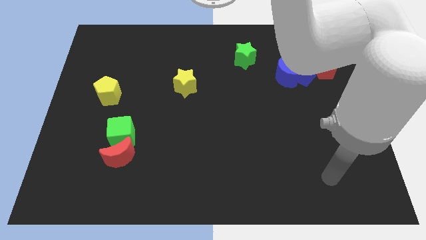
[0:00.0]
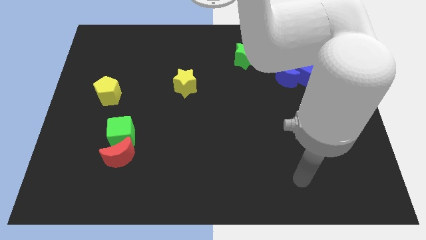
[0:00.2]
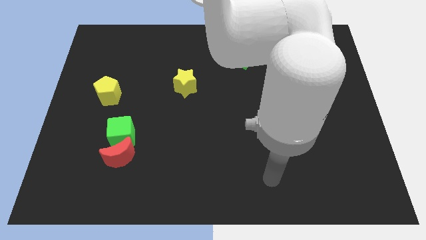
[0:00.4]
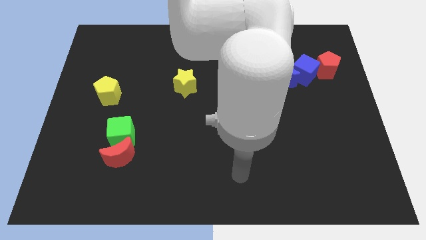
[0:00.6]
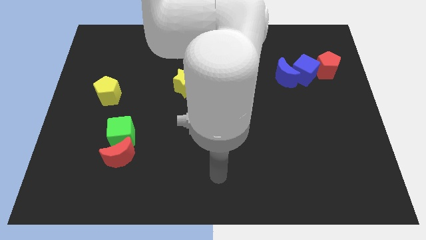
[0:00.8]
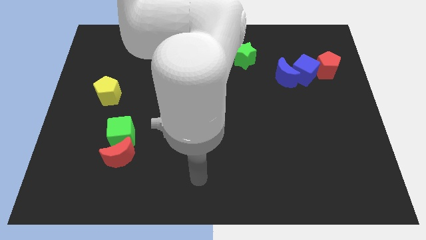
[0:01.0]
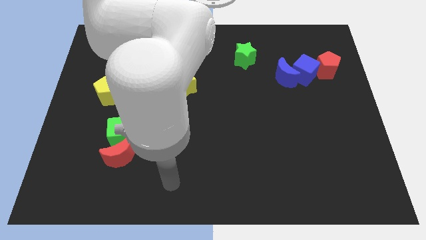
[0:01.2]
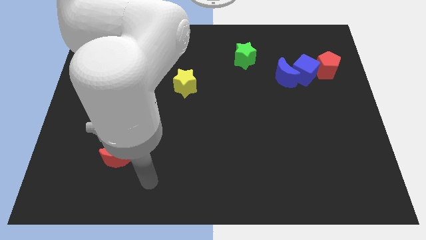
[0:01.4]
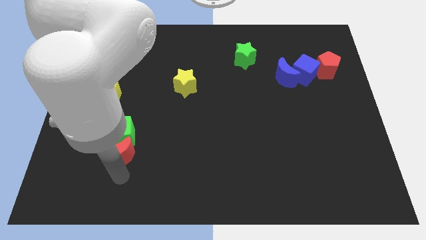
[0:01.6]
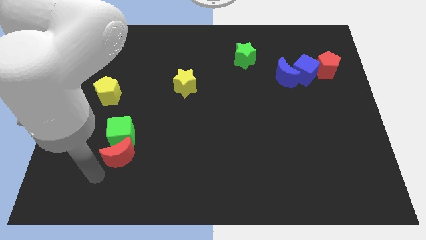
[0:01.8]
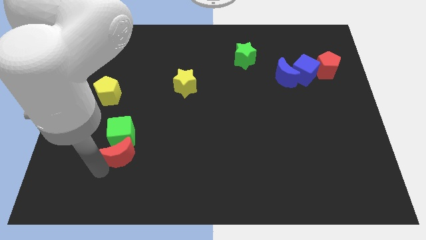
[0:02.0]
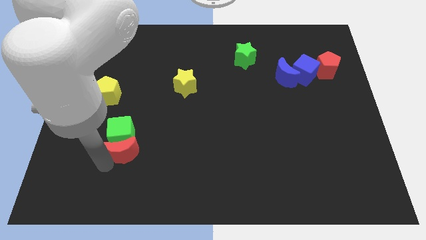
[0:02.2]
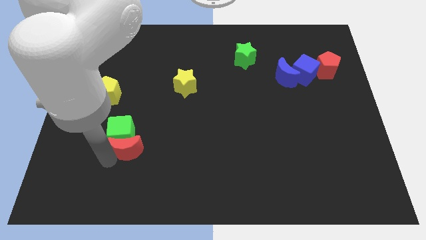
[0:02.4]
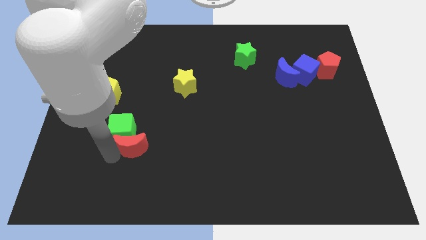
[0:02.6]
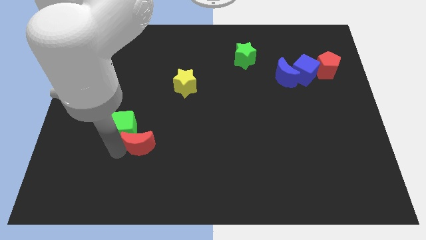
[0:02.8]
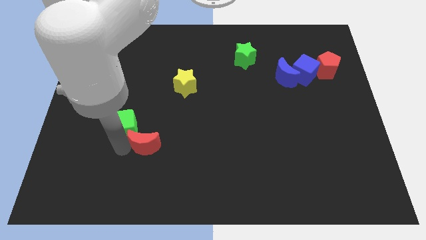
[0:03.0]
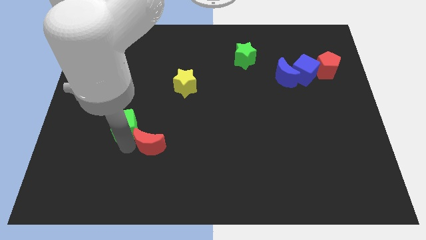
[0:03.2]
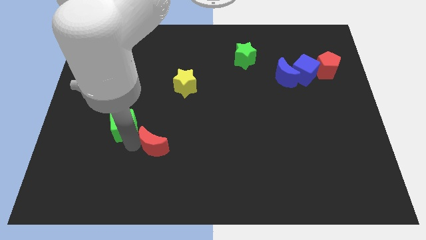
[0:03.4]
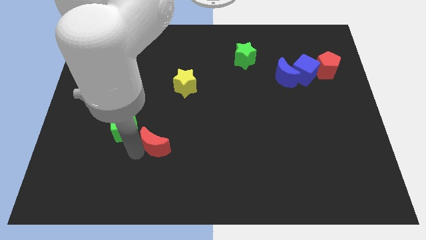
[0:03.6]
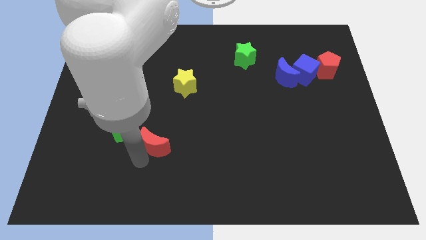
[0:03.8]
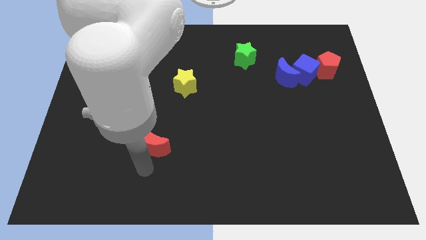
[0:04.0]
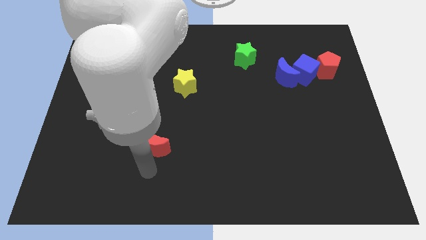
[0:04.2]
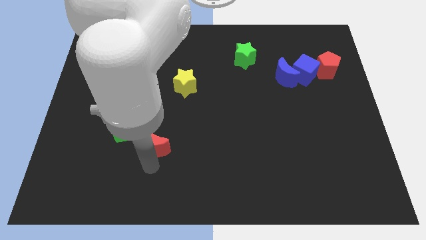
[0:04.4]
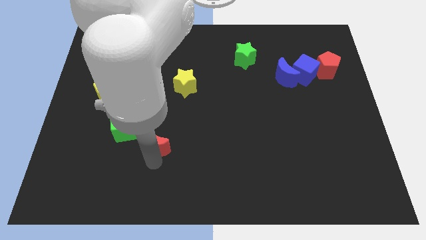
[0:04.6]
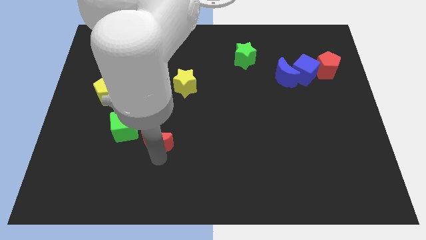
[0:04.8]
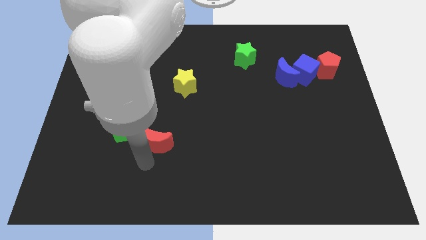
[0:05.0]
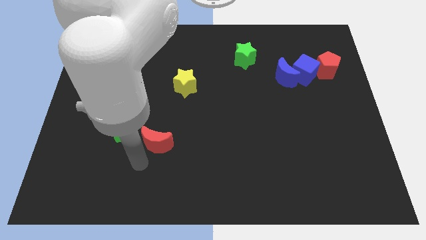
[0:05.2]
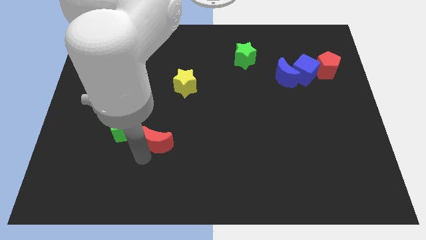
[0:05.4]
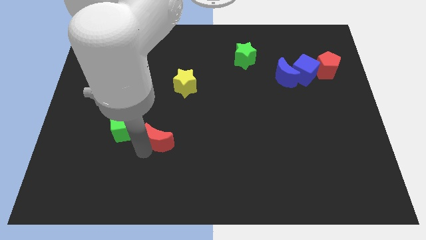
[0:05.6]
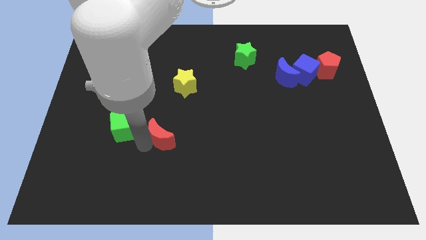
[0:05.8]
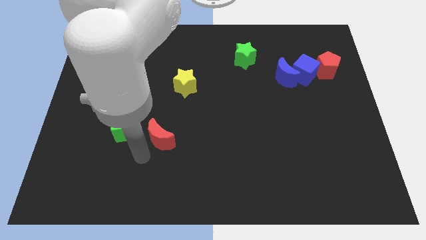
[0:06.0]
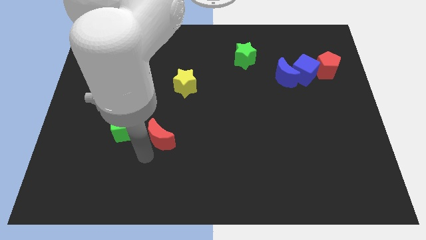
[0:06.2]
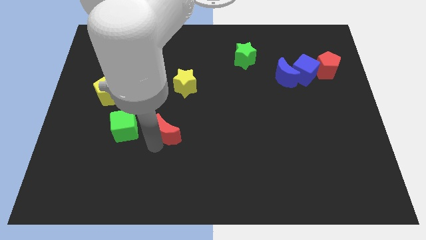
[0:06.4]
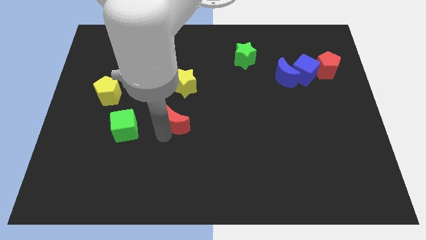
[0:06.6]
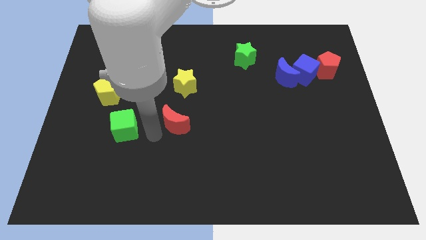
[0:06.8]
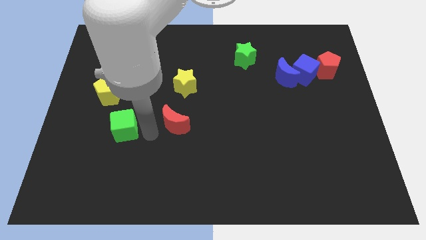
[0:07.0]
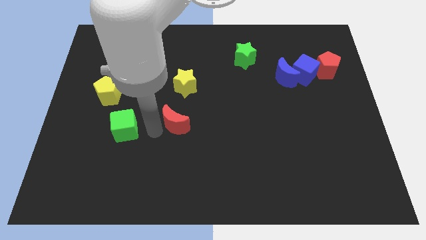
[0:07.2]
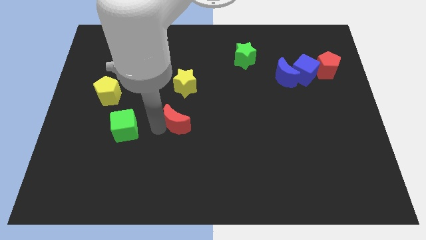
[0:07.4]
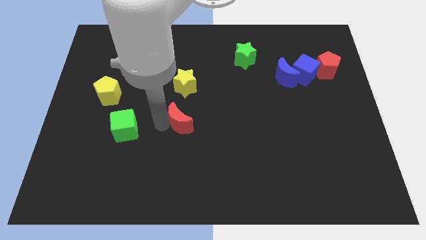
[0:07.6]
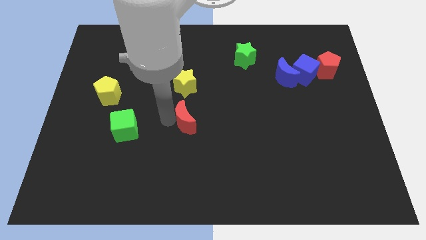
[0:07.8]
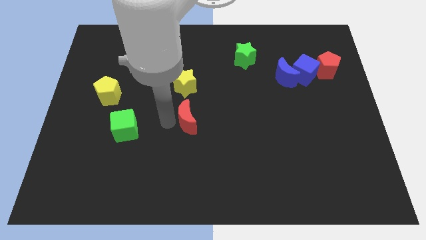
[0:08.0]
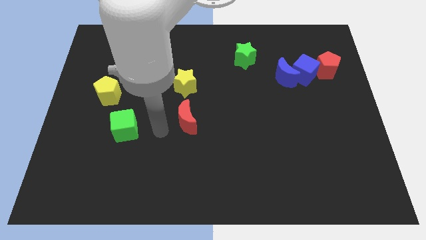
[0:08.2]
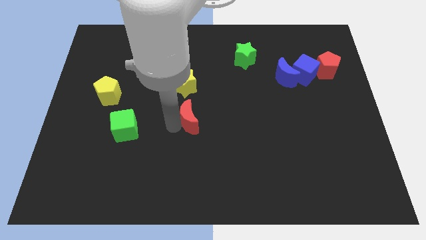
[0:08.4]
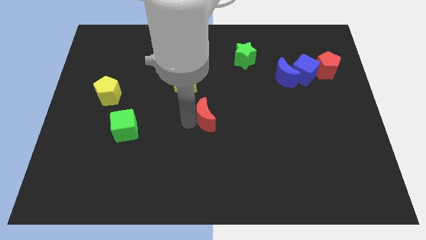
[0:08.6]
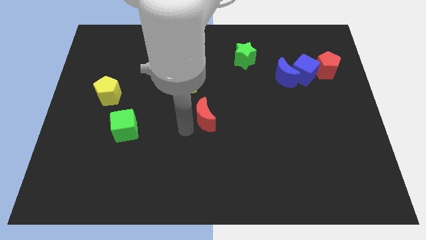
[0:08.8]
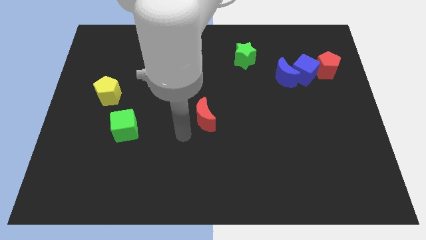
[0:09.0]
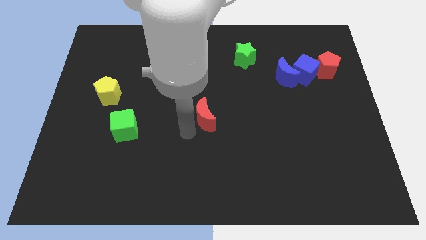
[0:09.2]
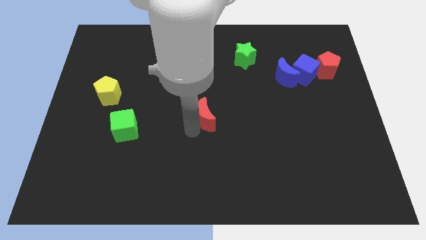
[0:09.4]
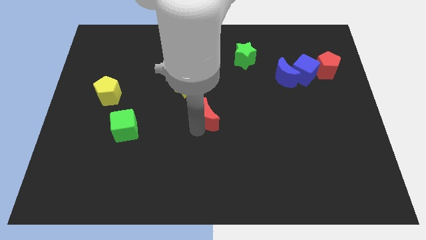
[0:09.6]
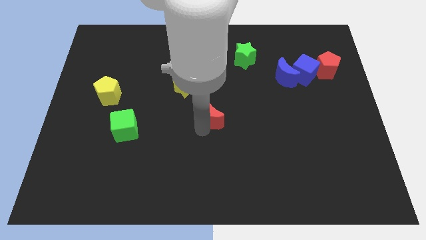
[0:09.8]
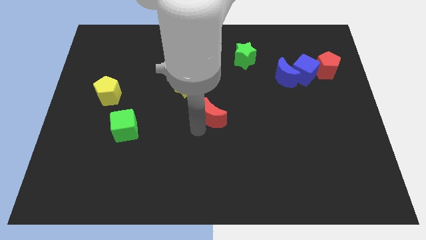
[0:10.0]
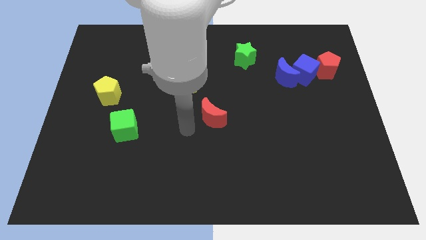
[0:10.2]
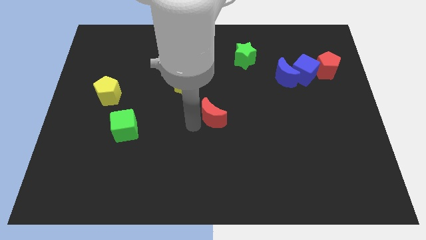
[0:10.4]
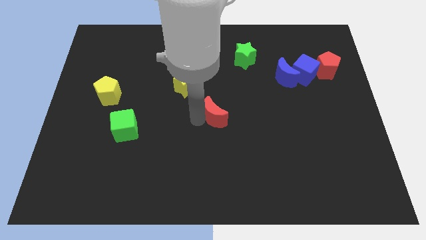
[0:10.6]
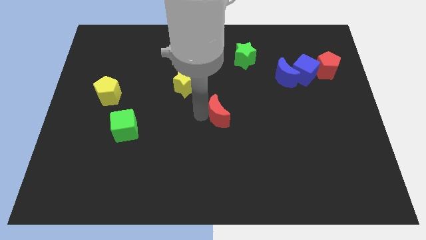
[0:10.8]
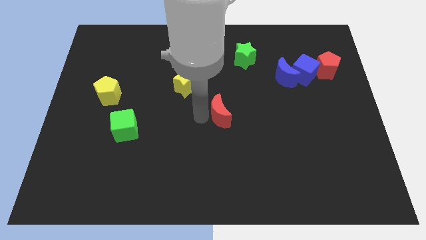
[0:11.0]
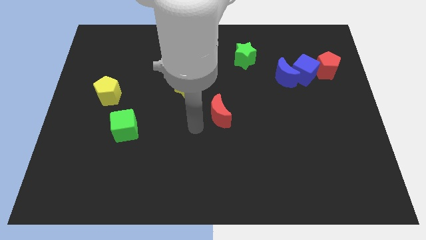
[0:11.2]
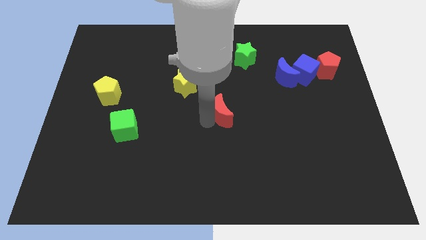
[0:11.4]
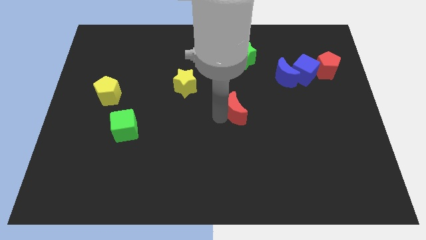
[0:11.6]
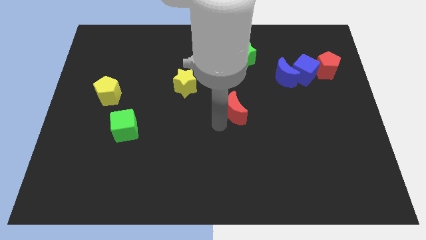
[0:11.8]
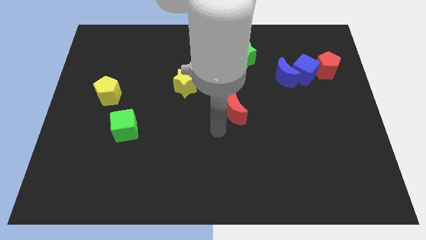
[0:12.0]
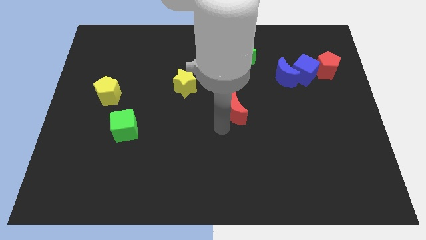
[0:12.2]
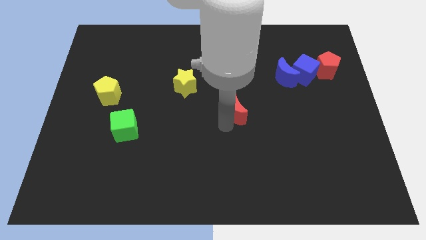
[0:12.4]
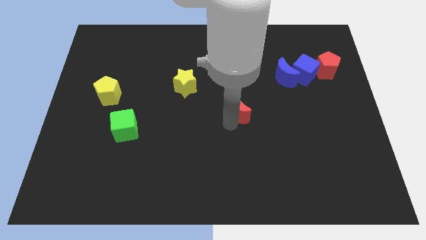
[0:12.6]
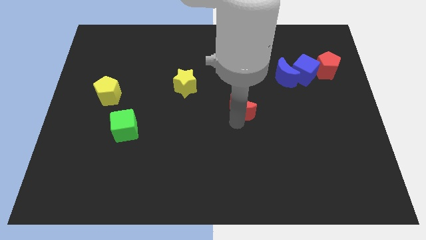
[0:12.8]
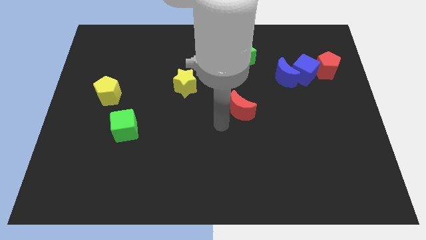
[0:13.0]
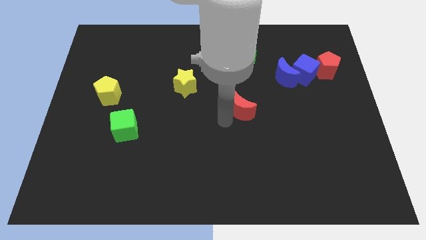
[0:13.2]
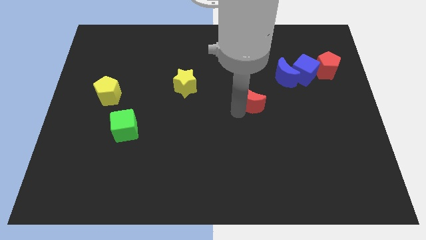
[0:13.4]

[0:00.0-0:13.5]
push the red moon diagonally down and to the left of the blue moon
